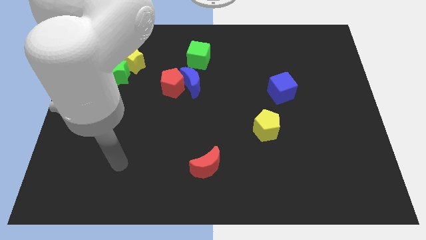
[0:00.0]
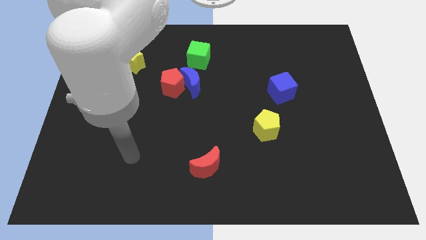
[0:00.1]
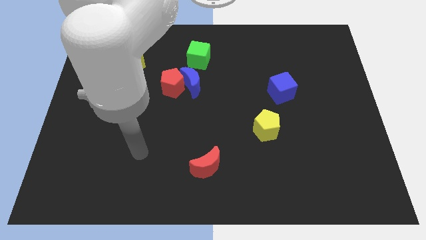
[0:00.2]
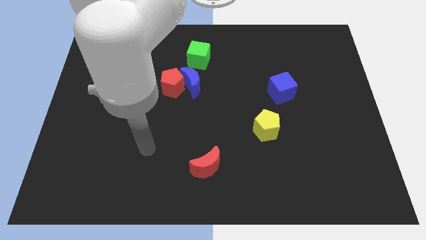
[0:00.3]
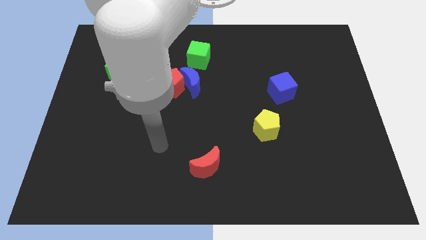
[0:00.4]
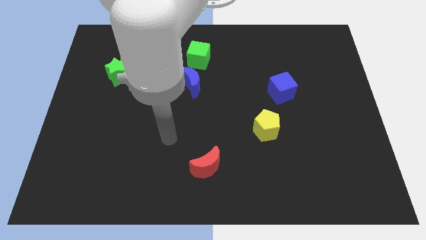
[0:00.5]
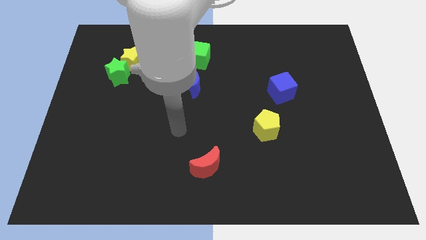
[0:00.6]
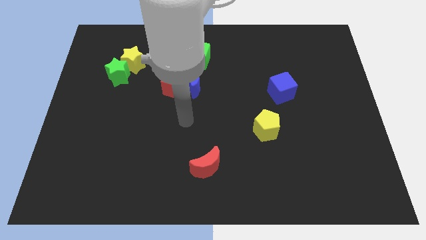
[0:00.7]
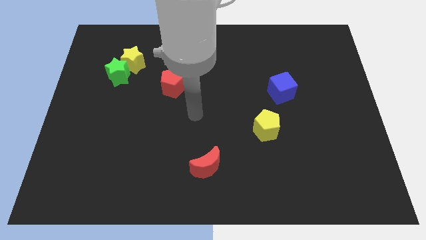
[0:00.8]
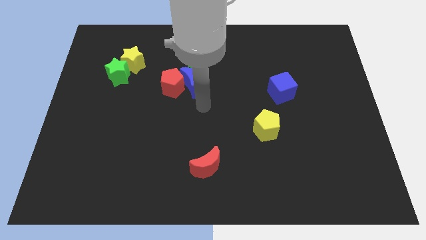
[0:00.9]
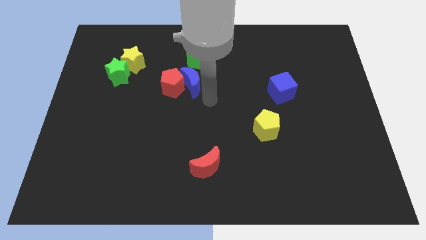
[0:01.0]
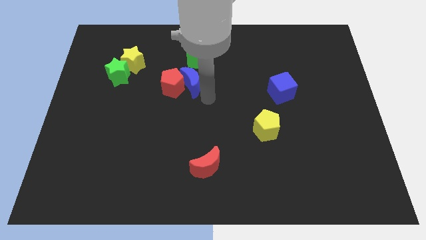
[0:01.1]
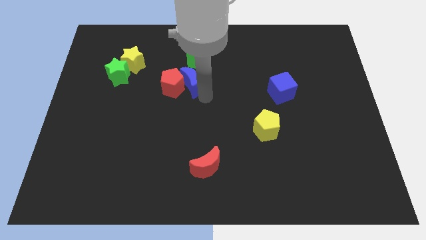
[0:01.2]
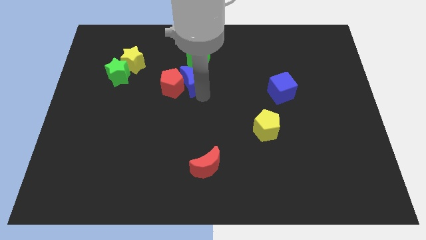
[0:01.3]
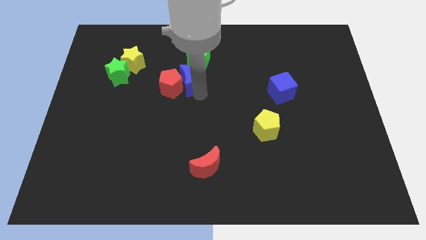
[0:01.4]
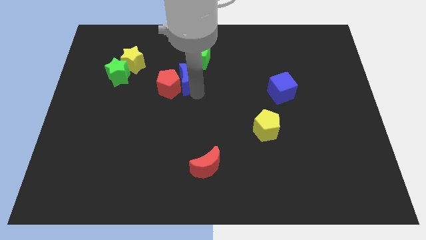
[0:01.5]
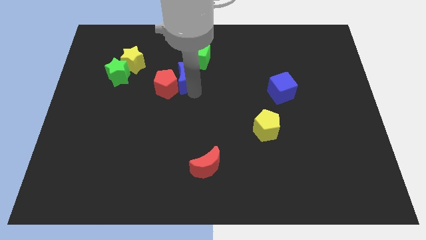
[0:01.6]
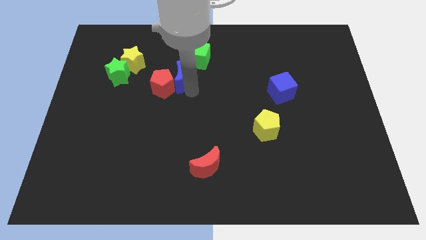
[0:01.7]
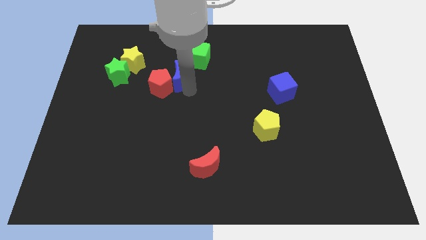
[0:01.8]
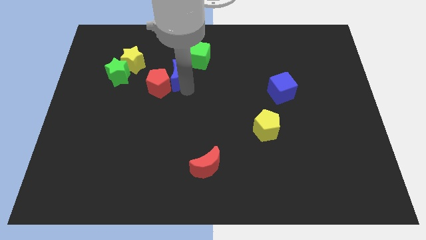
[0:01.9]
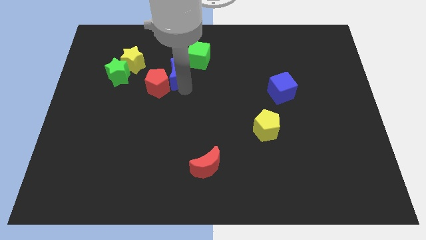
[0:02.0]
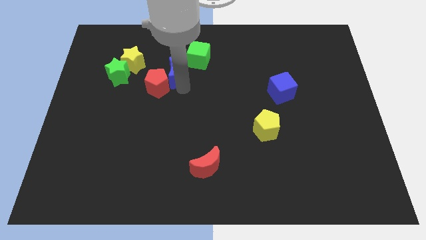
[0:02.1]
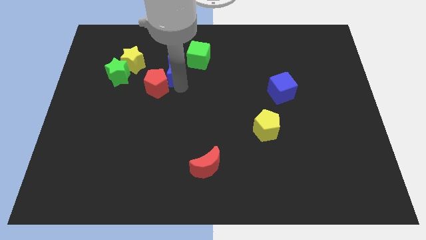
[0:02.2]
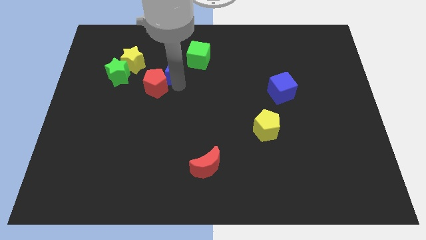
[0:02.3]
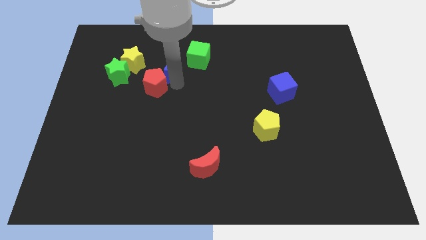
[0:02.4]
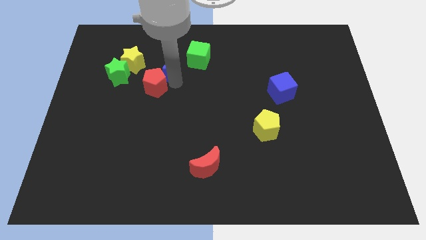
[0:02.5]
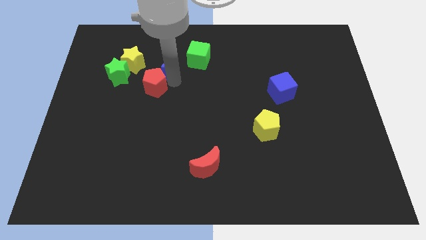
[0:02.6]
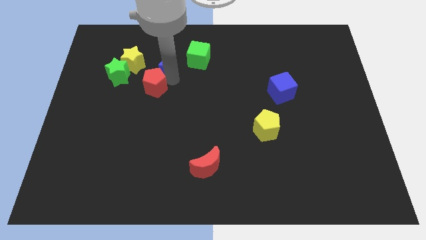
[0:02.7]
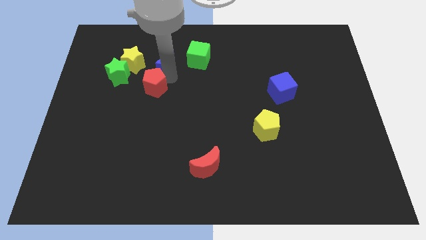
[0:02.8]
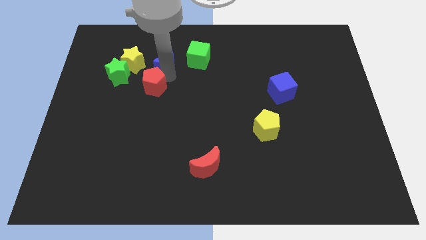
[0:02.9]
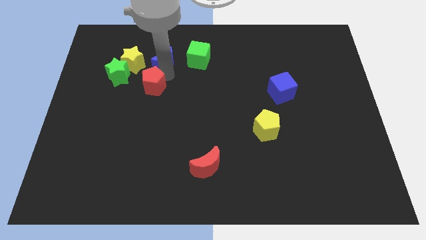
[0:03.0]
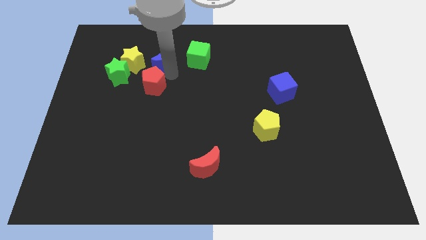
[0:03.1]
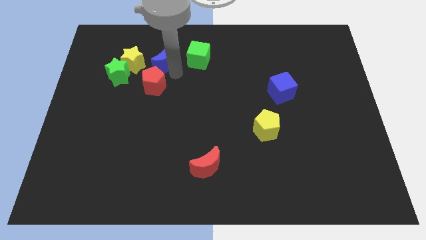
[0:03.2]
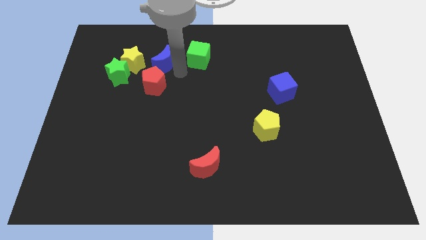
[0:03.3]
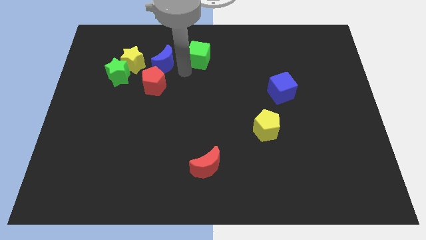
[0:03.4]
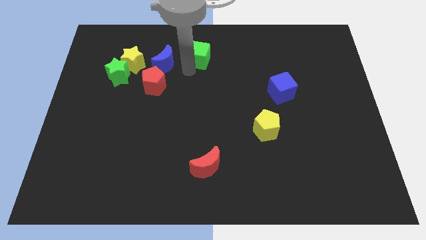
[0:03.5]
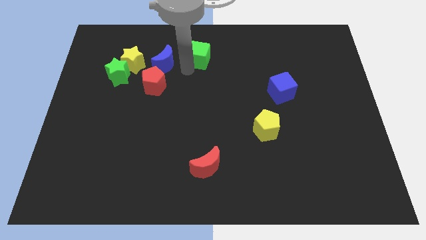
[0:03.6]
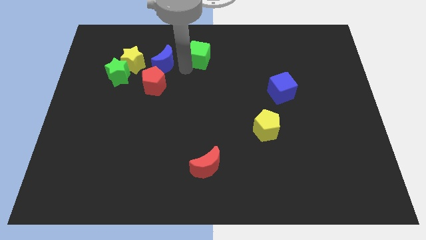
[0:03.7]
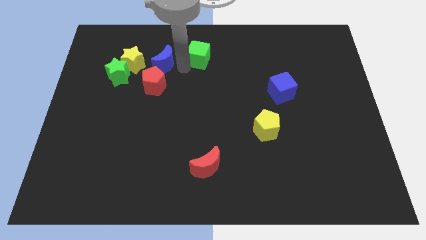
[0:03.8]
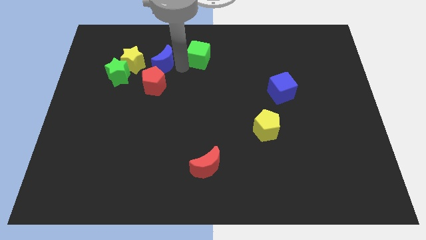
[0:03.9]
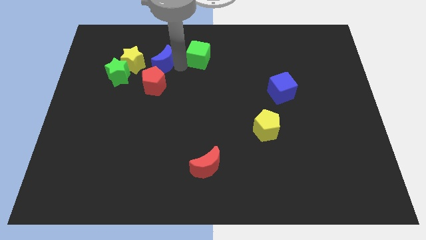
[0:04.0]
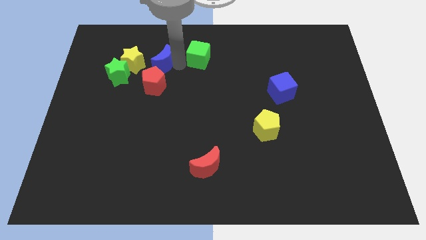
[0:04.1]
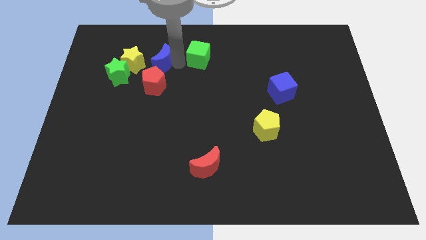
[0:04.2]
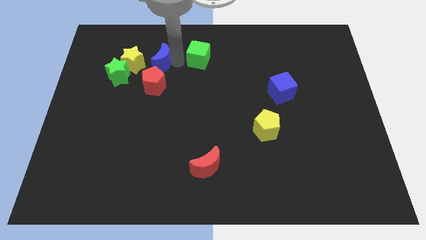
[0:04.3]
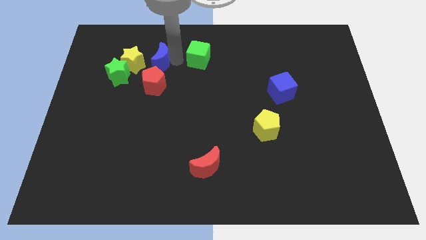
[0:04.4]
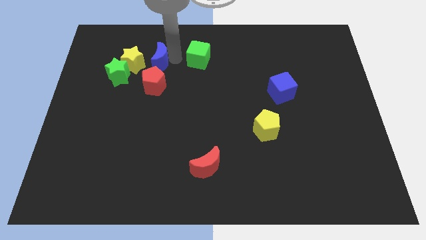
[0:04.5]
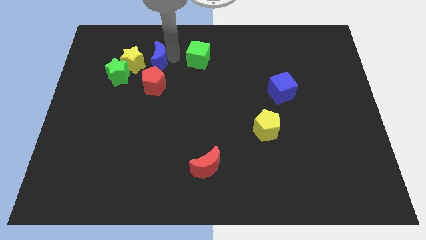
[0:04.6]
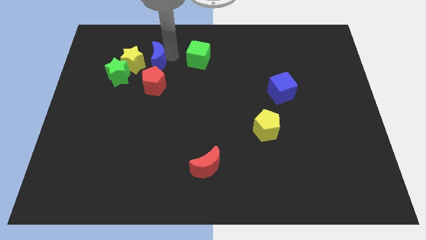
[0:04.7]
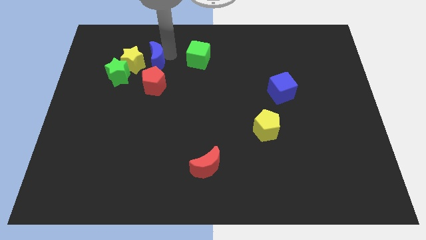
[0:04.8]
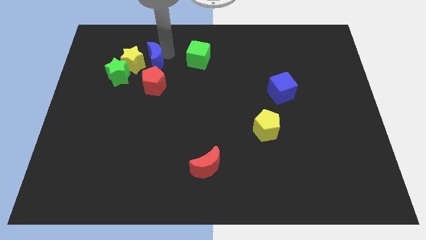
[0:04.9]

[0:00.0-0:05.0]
slide the blue moon close to the yellow star

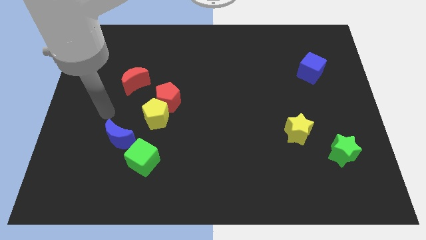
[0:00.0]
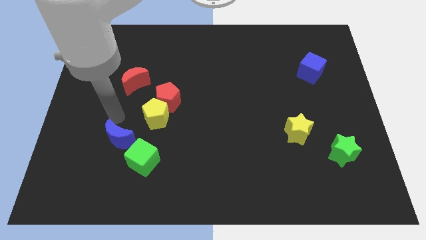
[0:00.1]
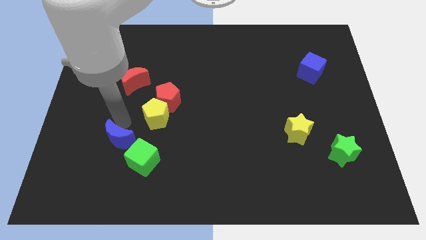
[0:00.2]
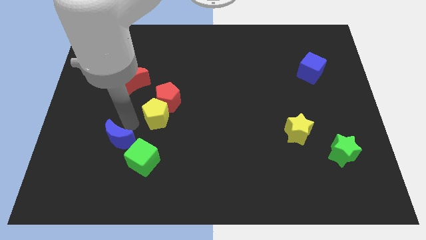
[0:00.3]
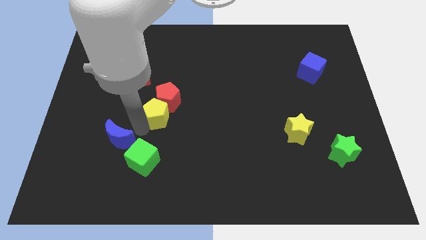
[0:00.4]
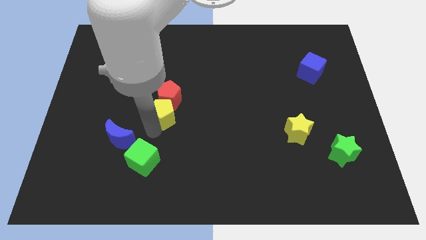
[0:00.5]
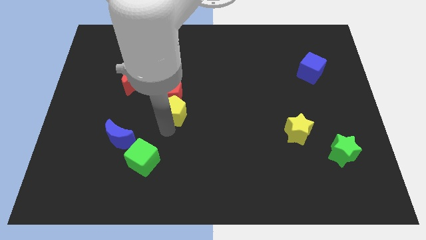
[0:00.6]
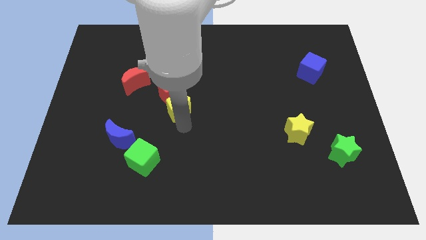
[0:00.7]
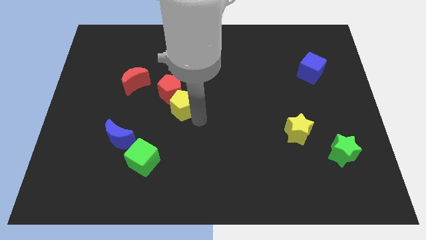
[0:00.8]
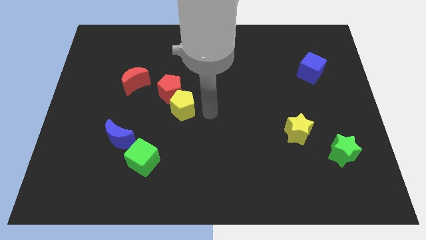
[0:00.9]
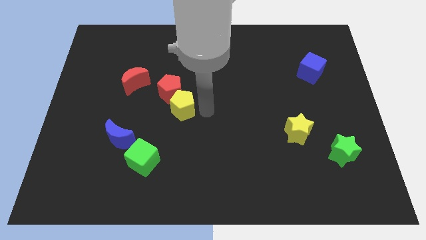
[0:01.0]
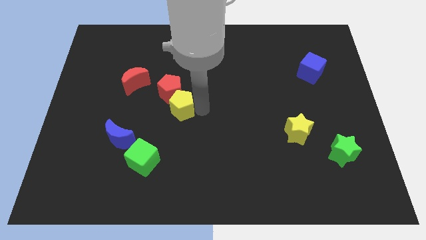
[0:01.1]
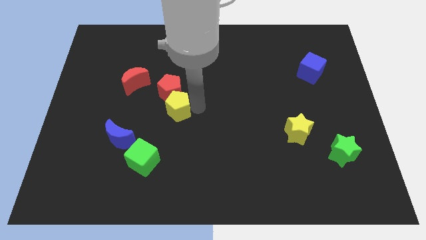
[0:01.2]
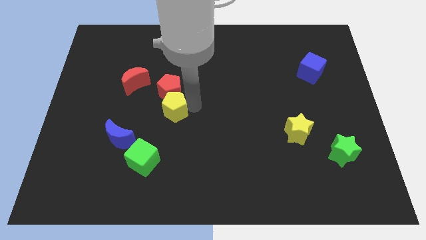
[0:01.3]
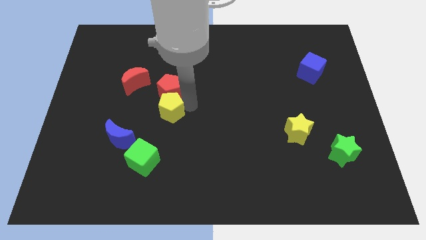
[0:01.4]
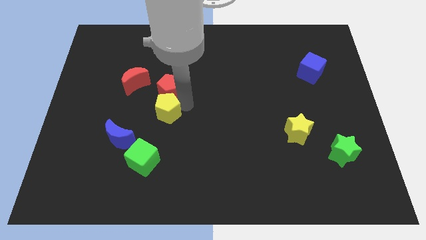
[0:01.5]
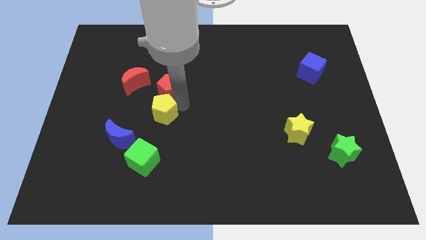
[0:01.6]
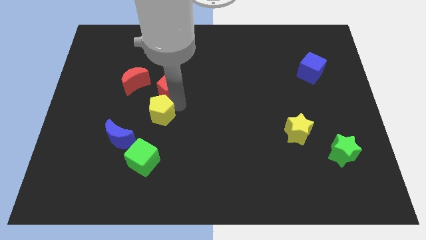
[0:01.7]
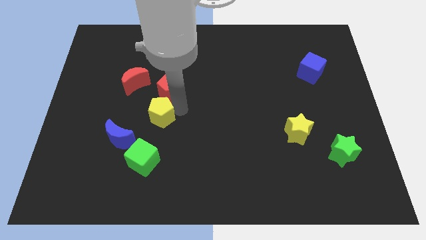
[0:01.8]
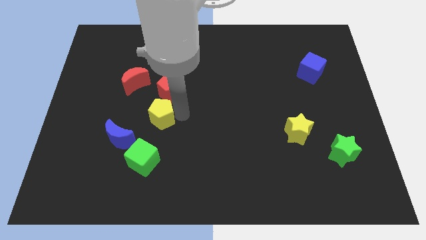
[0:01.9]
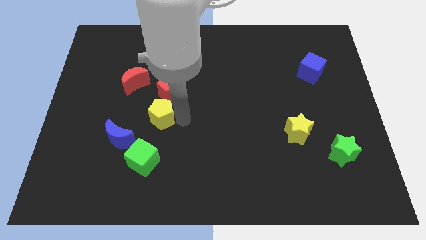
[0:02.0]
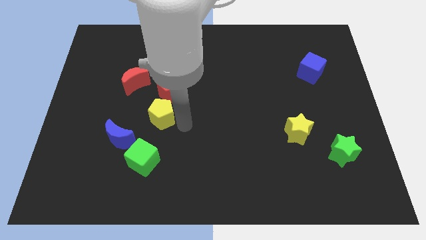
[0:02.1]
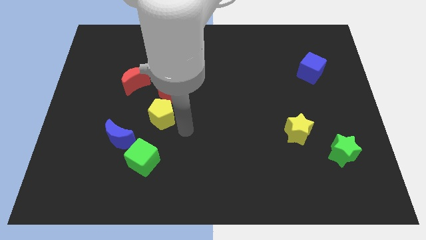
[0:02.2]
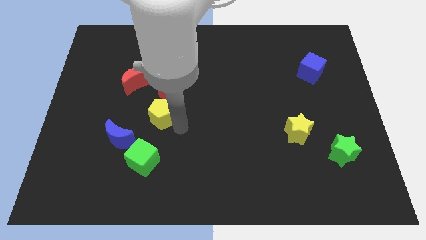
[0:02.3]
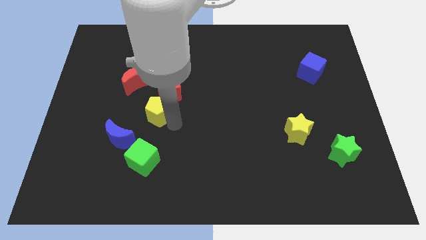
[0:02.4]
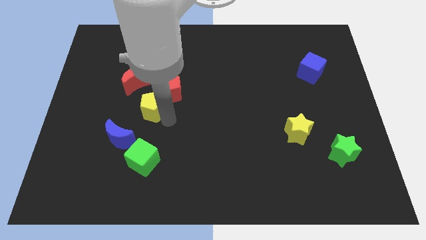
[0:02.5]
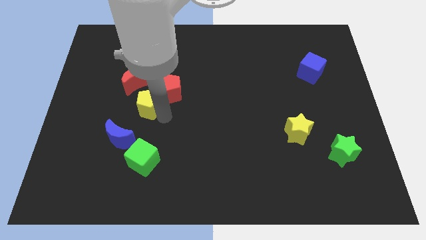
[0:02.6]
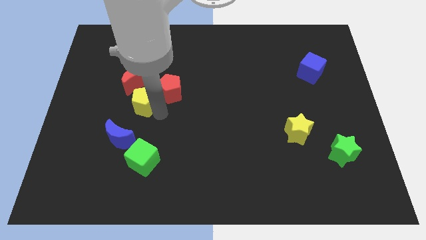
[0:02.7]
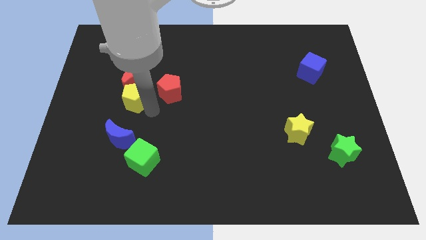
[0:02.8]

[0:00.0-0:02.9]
slide the yellow pentagon to the red moon
